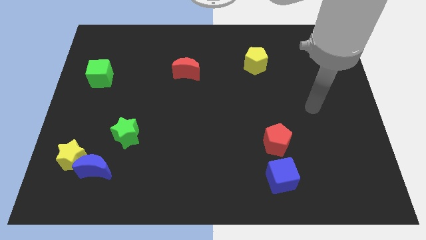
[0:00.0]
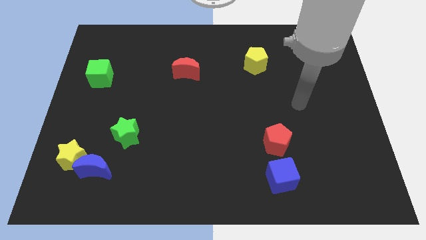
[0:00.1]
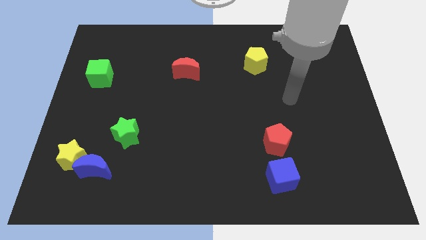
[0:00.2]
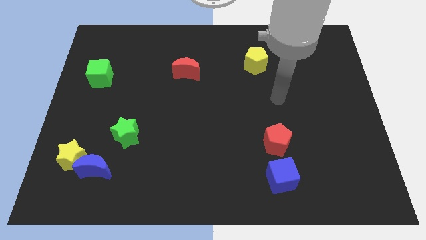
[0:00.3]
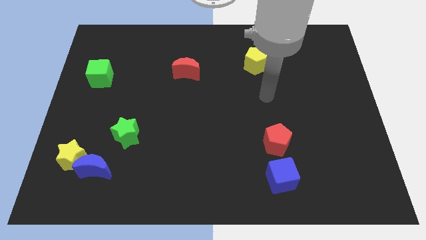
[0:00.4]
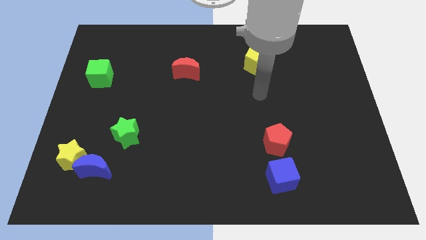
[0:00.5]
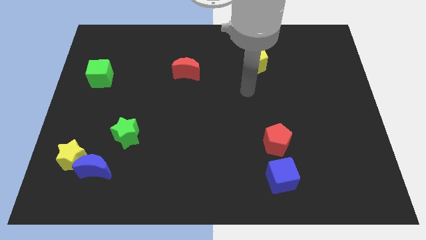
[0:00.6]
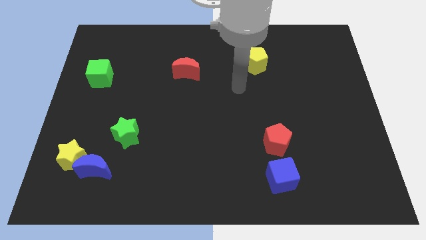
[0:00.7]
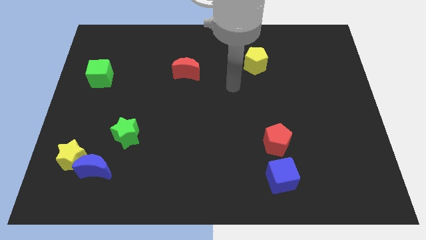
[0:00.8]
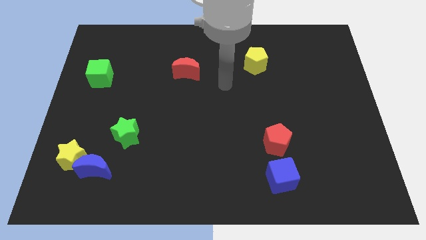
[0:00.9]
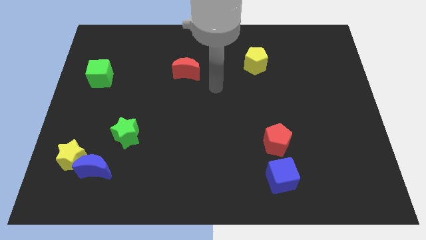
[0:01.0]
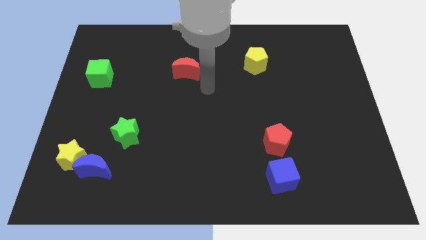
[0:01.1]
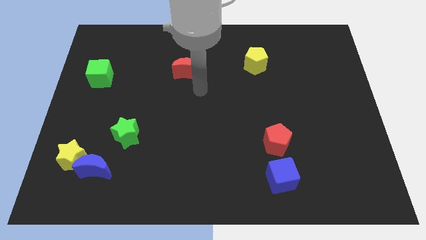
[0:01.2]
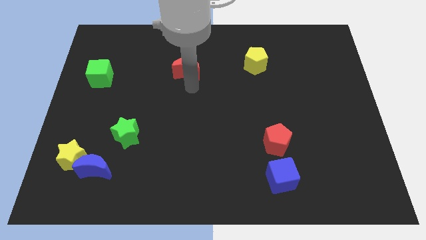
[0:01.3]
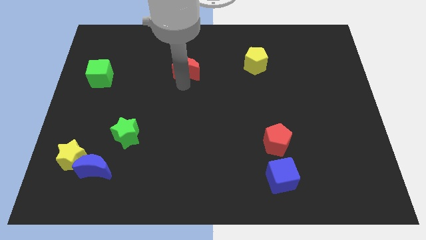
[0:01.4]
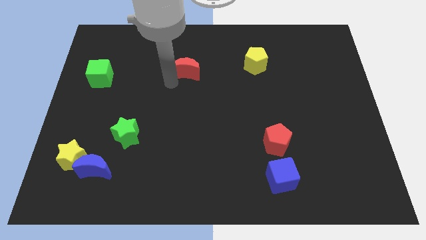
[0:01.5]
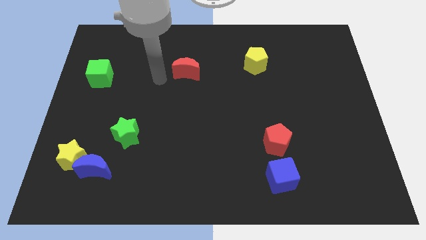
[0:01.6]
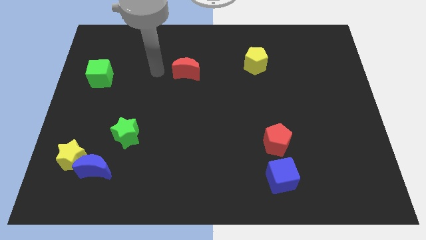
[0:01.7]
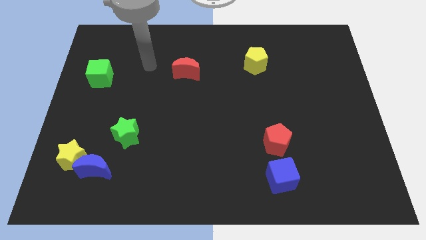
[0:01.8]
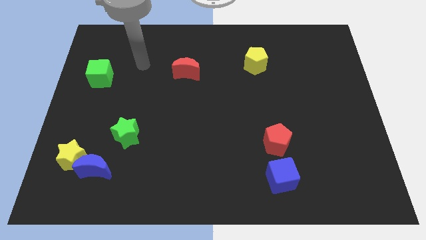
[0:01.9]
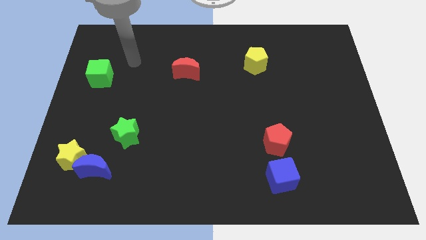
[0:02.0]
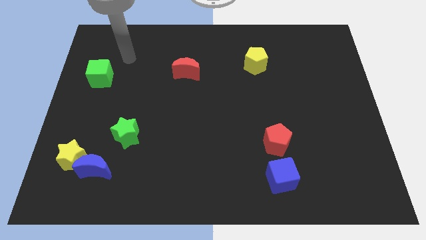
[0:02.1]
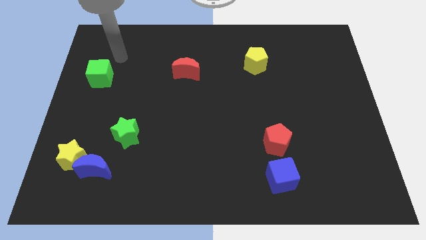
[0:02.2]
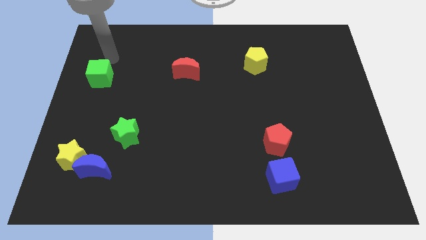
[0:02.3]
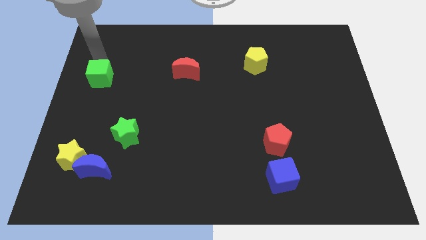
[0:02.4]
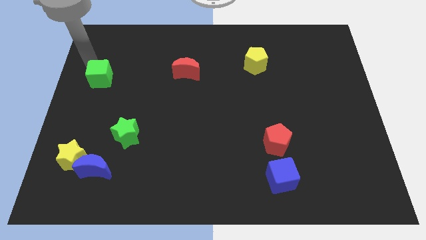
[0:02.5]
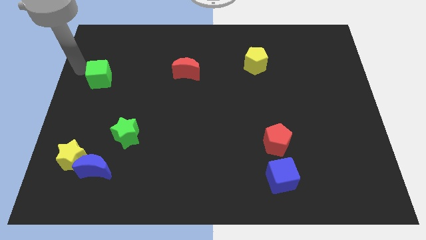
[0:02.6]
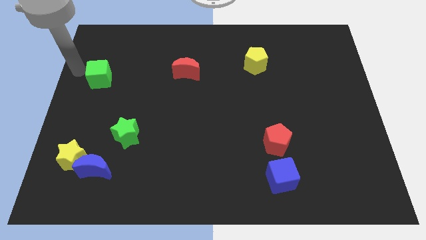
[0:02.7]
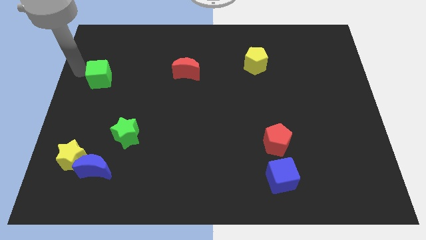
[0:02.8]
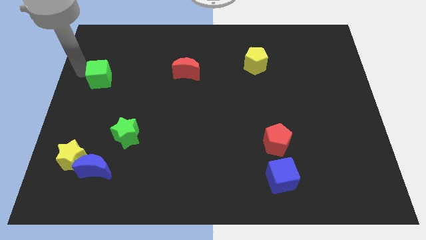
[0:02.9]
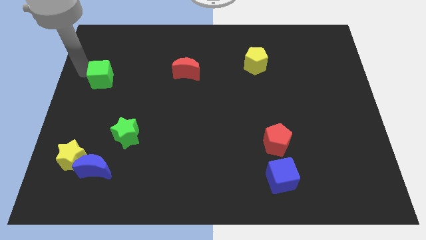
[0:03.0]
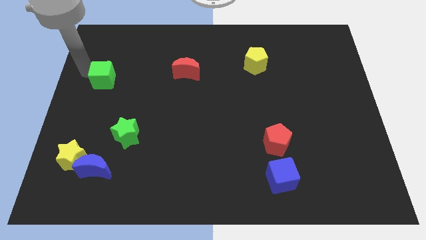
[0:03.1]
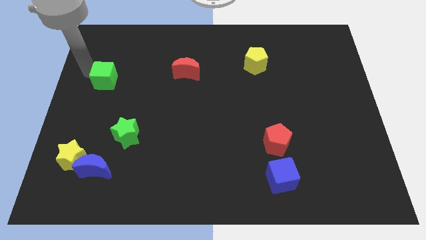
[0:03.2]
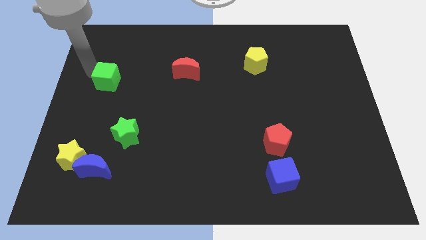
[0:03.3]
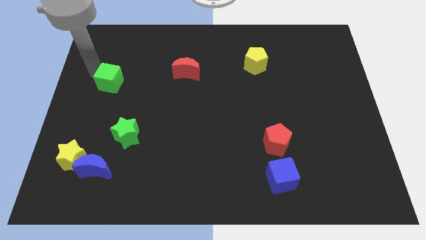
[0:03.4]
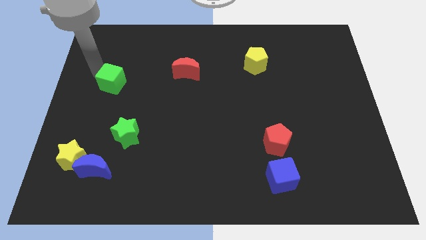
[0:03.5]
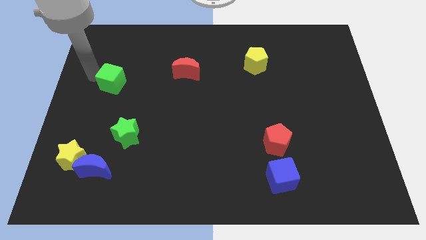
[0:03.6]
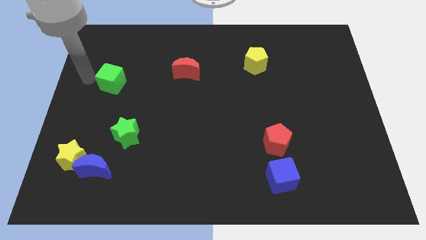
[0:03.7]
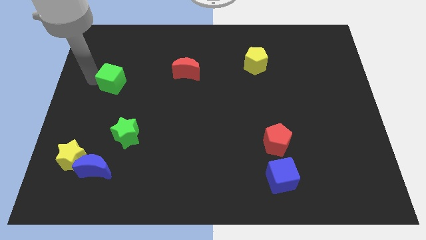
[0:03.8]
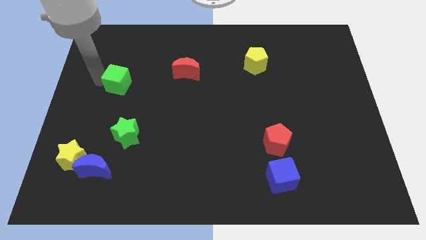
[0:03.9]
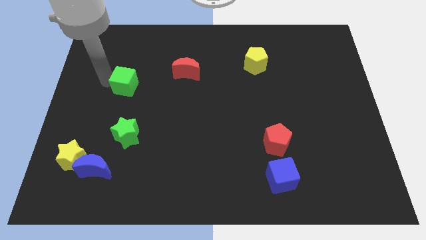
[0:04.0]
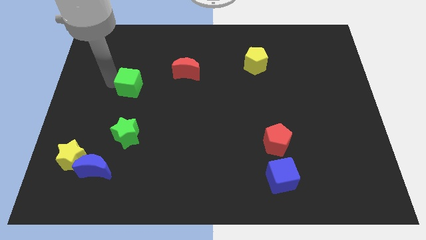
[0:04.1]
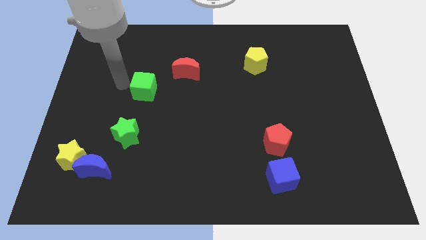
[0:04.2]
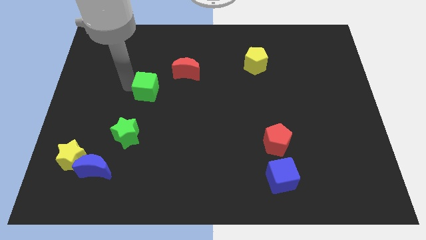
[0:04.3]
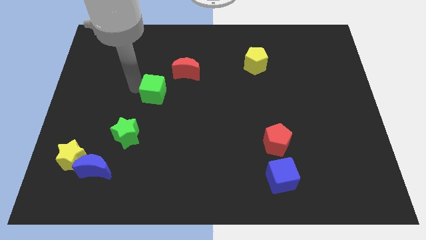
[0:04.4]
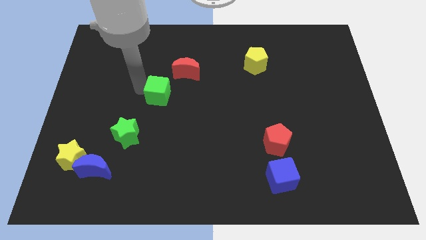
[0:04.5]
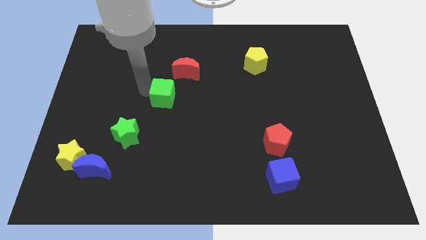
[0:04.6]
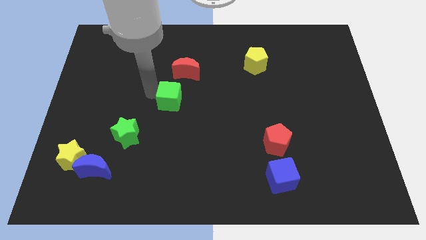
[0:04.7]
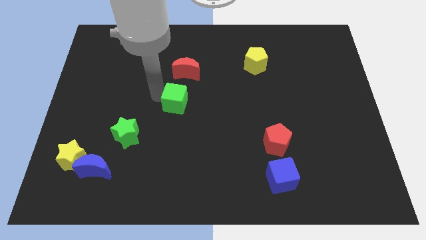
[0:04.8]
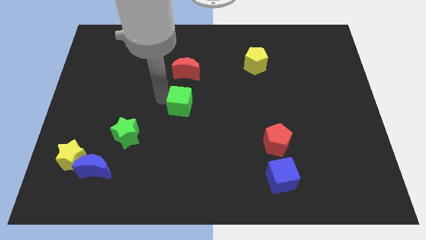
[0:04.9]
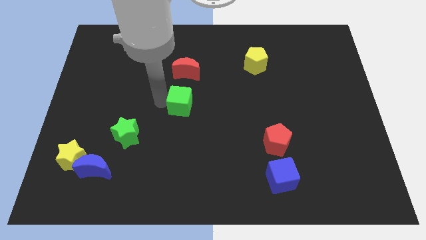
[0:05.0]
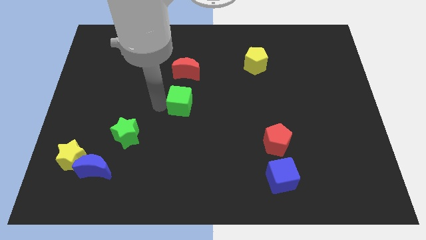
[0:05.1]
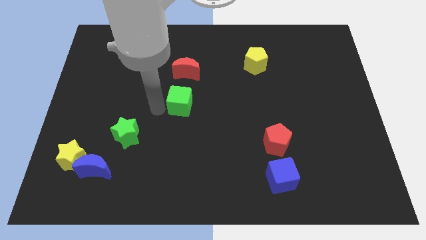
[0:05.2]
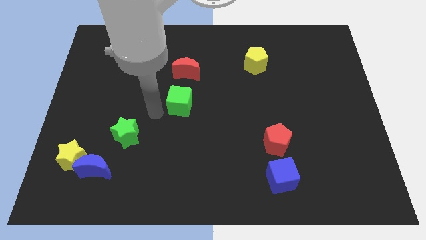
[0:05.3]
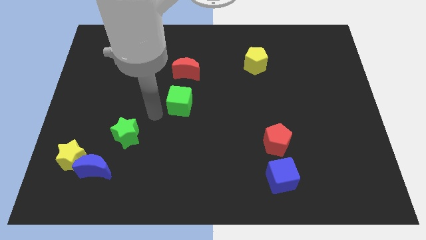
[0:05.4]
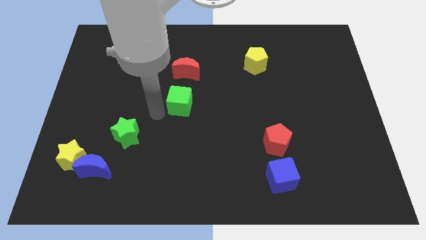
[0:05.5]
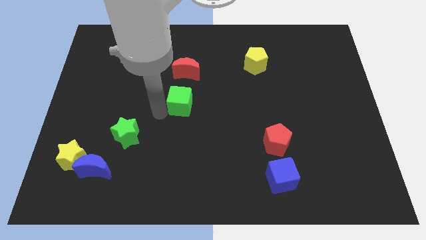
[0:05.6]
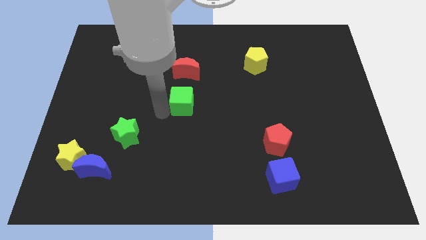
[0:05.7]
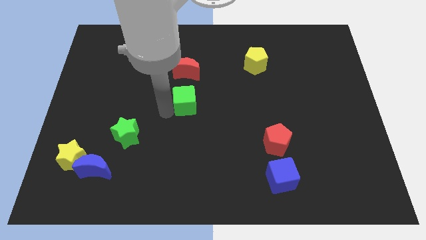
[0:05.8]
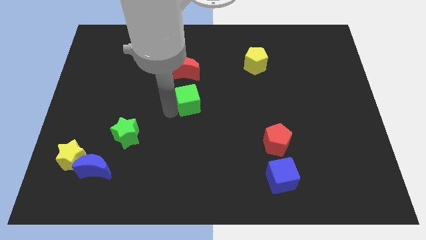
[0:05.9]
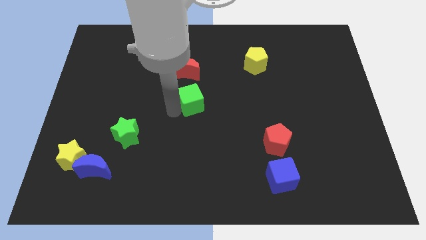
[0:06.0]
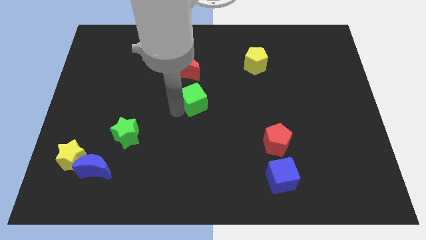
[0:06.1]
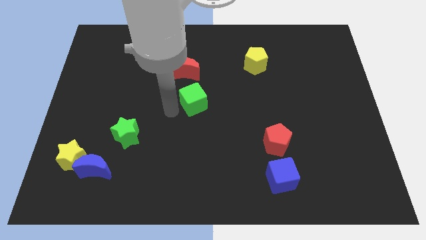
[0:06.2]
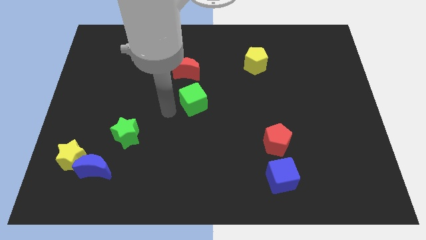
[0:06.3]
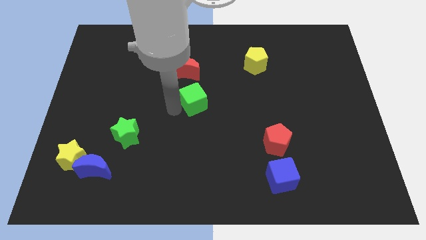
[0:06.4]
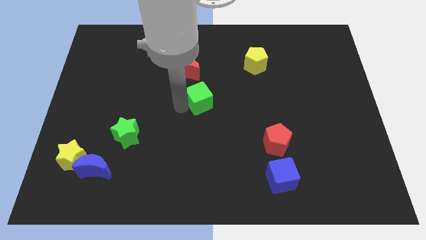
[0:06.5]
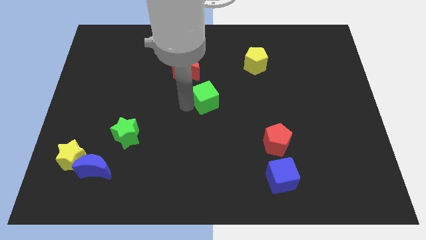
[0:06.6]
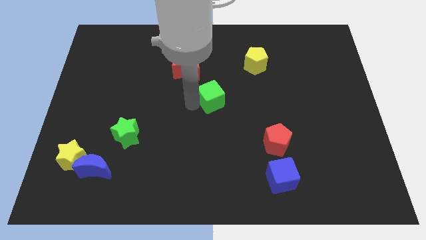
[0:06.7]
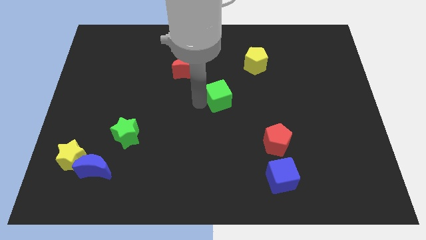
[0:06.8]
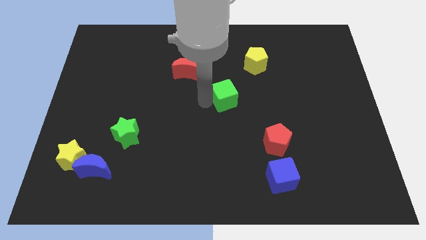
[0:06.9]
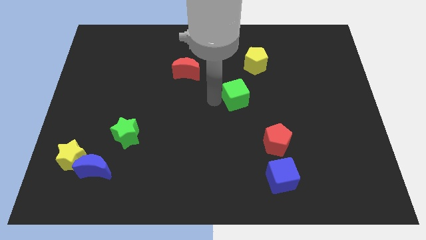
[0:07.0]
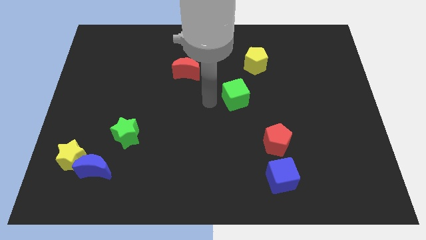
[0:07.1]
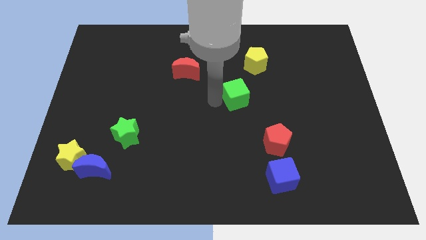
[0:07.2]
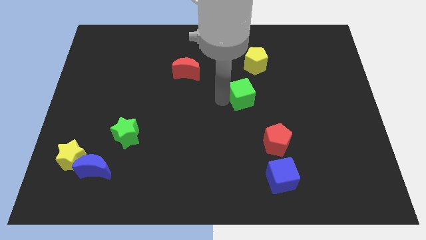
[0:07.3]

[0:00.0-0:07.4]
push the green cube to the bottom side of the yellow pentagon
